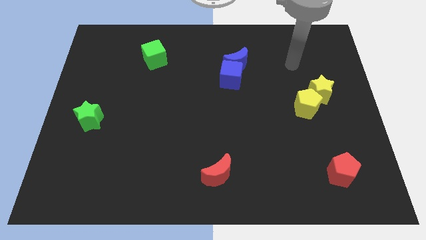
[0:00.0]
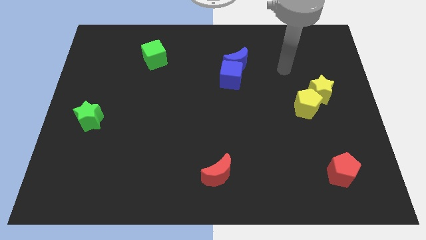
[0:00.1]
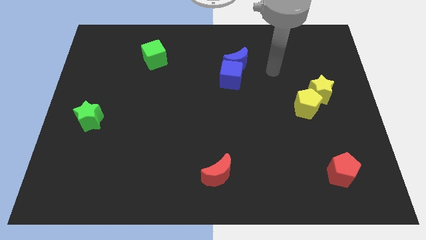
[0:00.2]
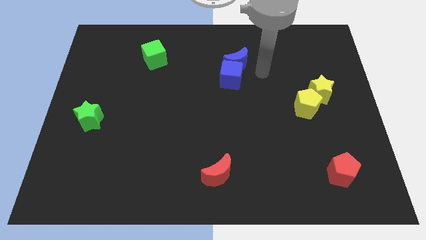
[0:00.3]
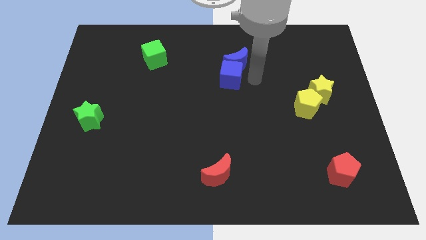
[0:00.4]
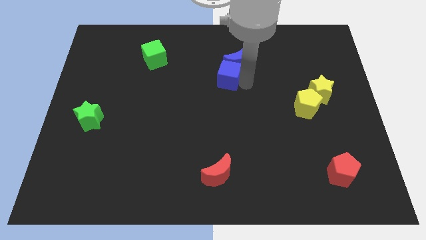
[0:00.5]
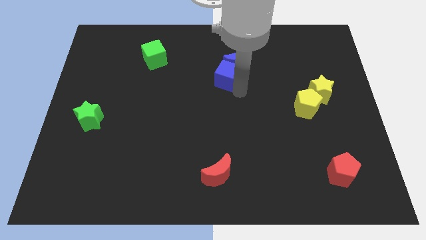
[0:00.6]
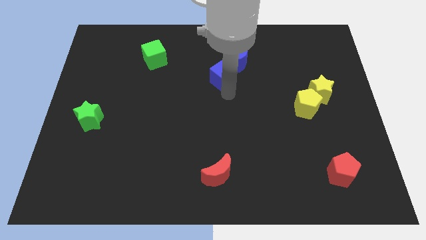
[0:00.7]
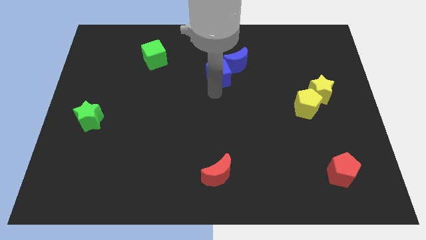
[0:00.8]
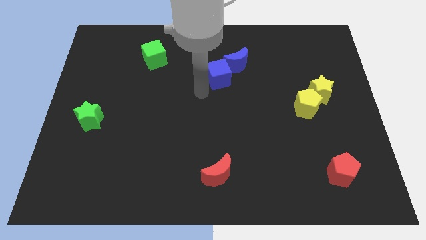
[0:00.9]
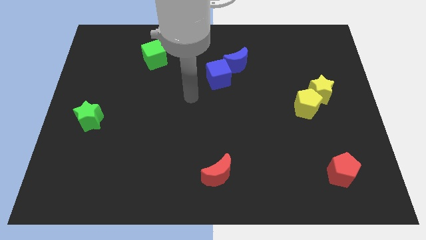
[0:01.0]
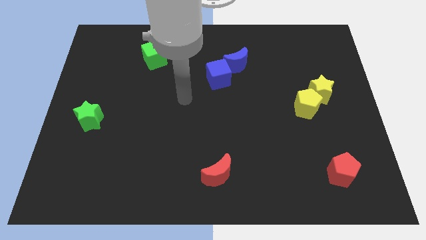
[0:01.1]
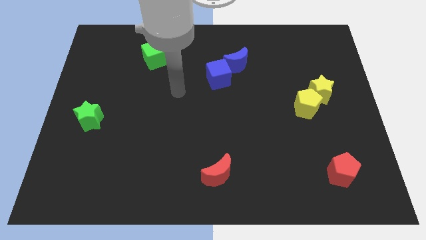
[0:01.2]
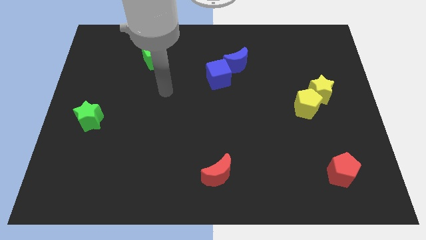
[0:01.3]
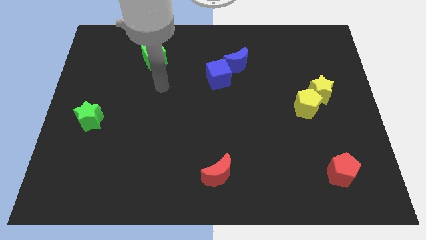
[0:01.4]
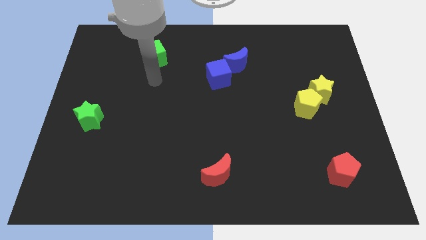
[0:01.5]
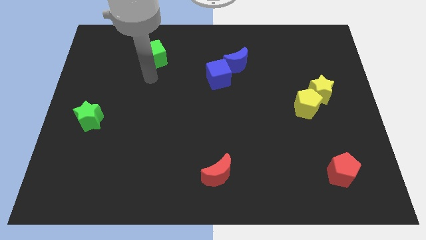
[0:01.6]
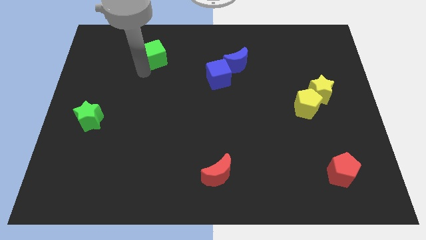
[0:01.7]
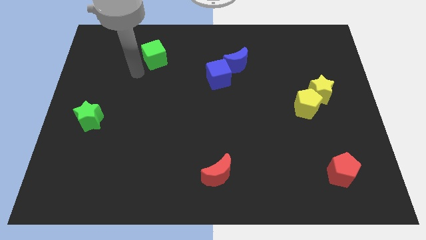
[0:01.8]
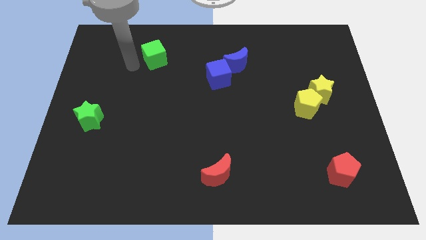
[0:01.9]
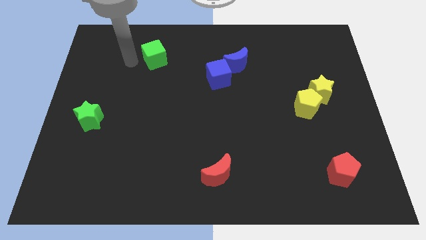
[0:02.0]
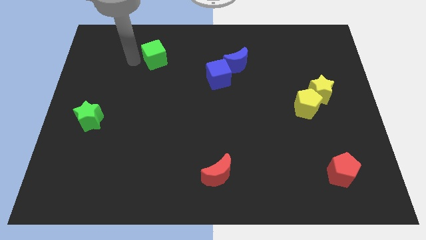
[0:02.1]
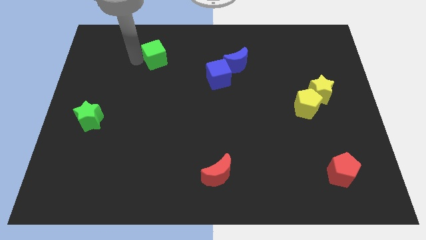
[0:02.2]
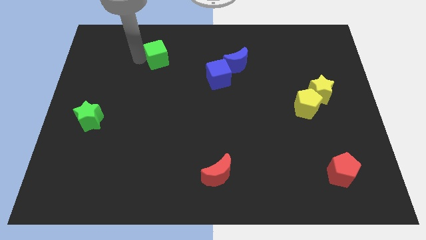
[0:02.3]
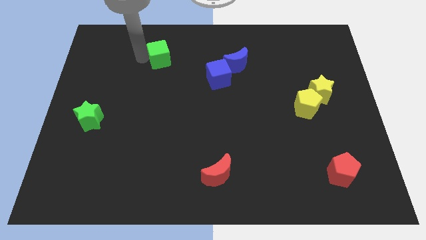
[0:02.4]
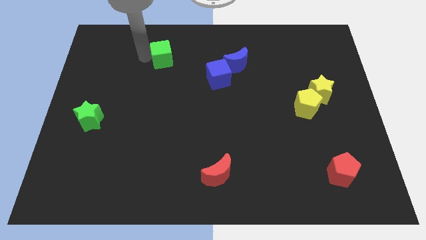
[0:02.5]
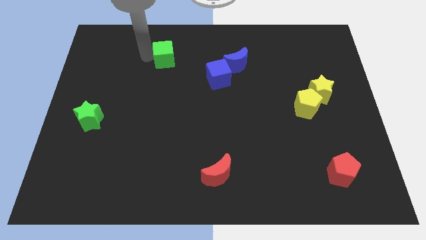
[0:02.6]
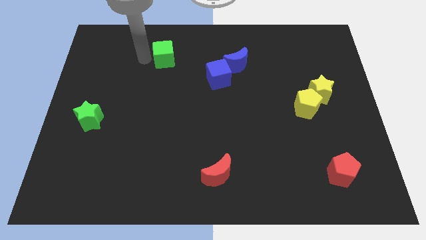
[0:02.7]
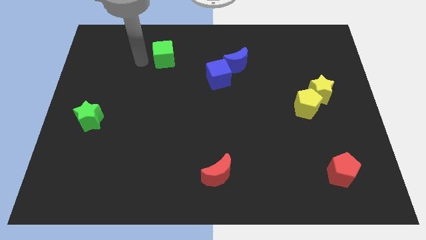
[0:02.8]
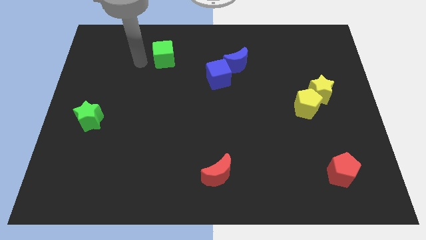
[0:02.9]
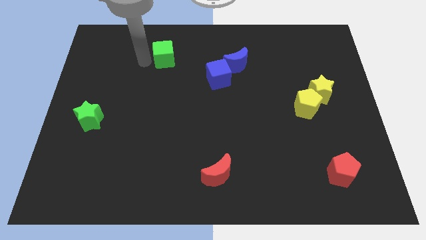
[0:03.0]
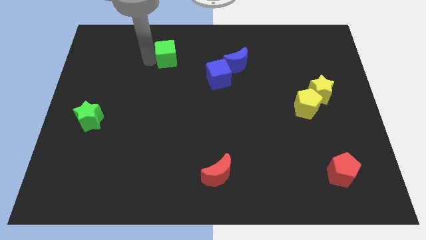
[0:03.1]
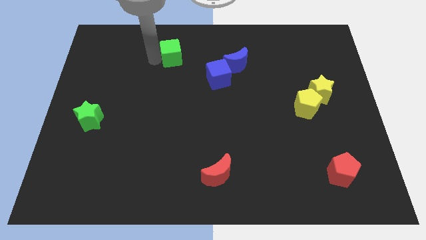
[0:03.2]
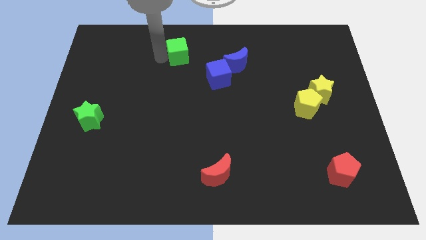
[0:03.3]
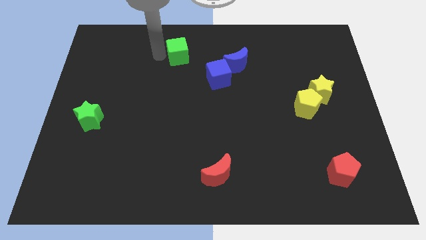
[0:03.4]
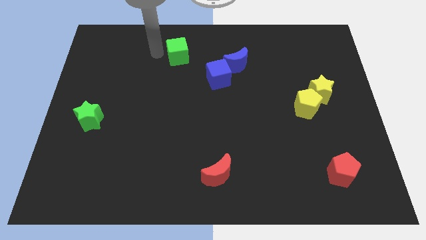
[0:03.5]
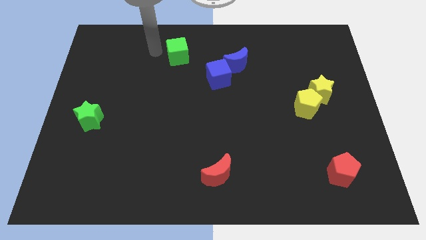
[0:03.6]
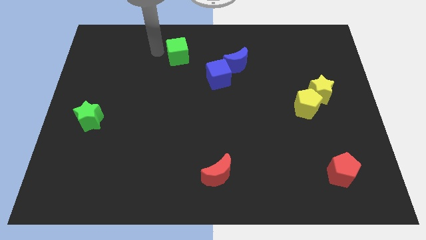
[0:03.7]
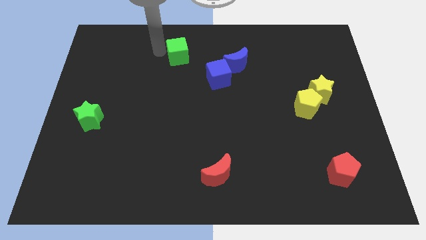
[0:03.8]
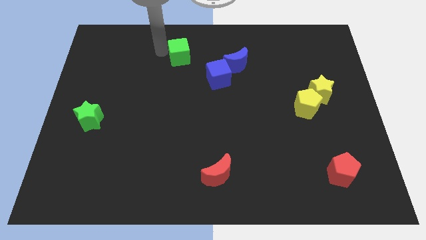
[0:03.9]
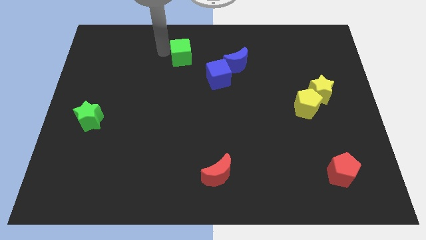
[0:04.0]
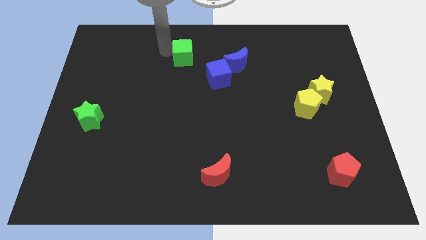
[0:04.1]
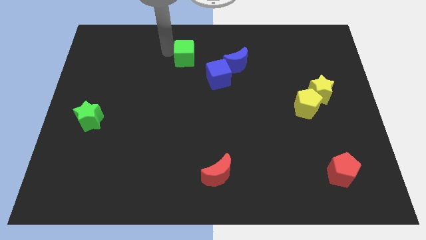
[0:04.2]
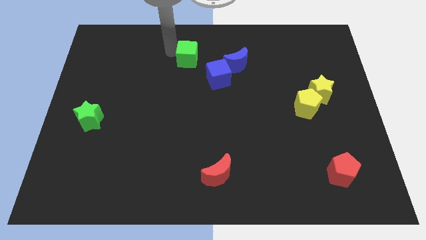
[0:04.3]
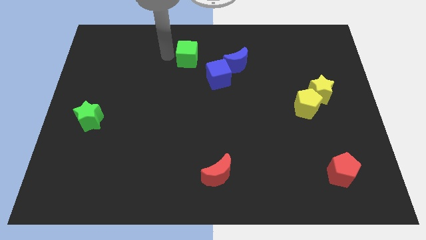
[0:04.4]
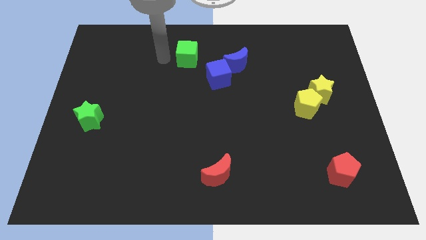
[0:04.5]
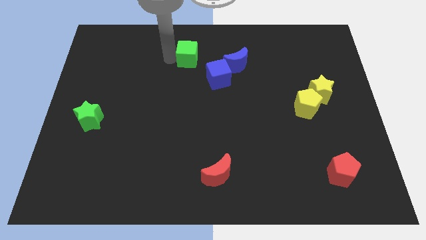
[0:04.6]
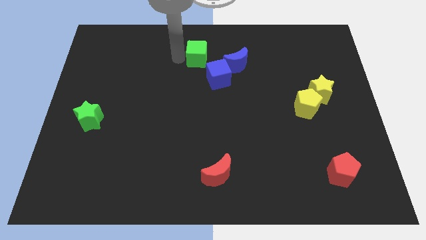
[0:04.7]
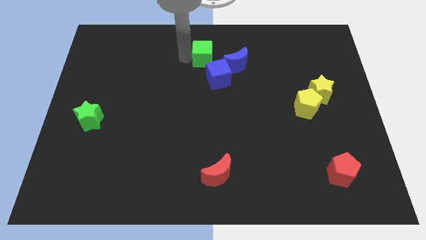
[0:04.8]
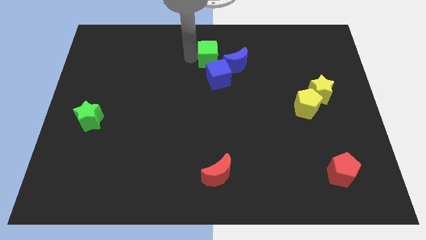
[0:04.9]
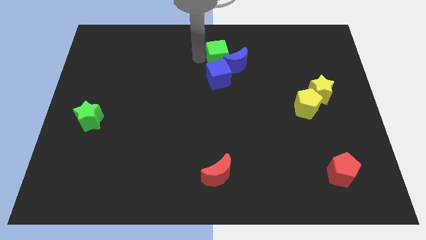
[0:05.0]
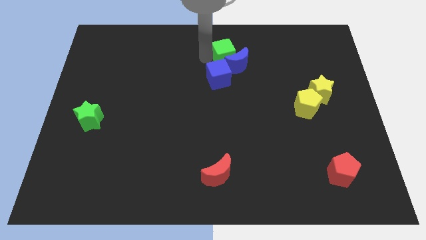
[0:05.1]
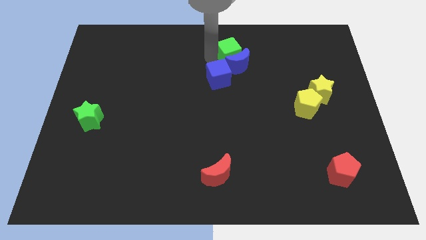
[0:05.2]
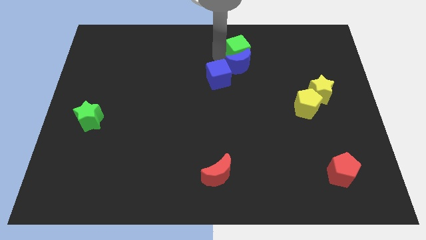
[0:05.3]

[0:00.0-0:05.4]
slide the green cube right

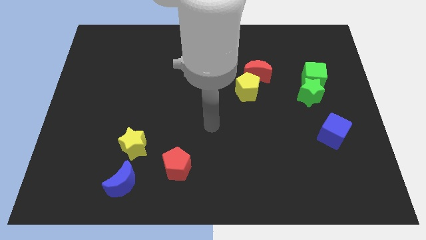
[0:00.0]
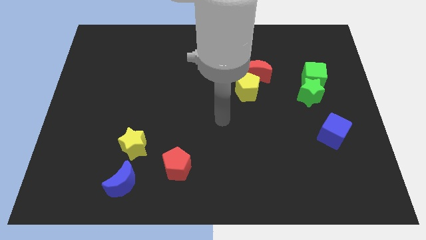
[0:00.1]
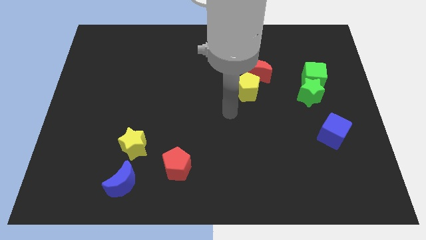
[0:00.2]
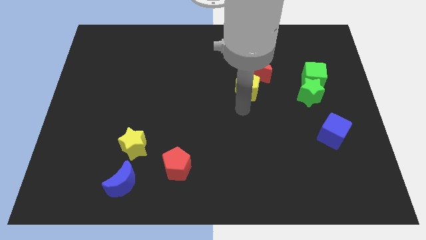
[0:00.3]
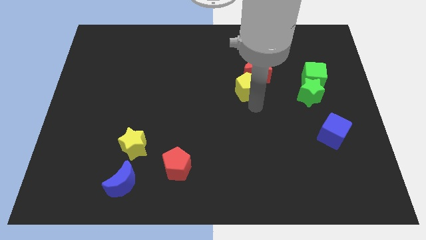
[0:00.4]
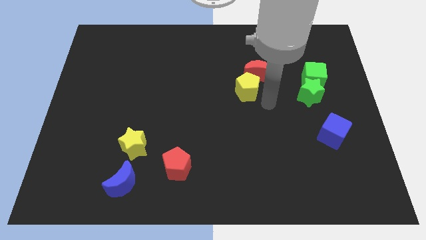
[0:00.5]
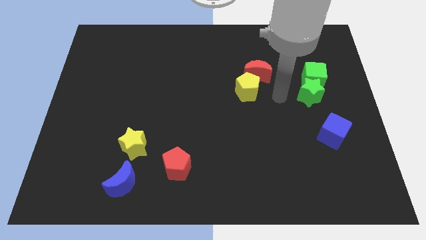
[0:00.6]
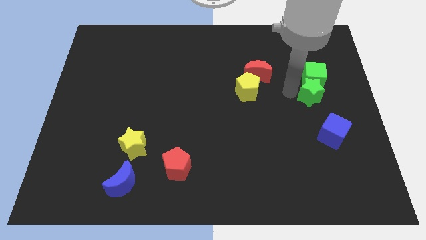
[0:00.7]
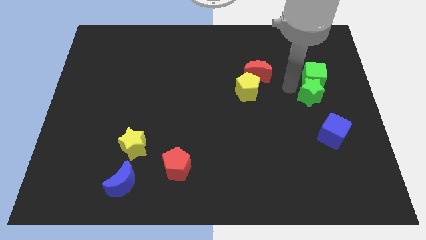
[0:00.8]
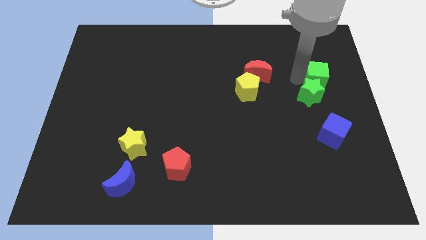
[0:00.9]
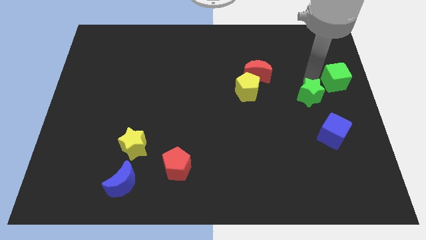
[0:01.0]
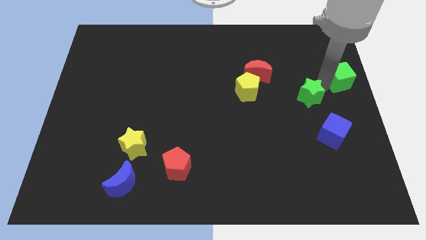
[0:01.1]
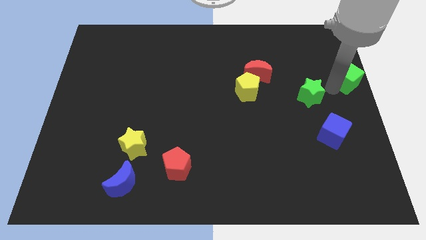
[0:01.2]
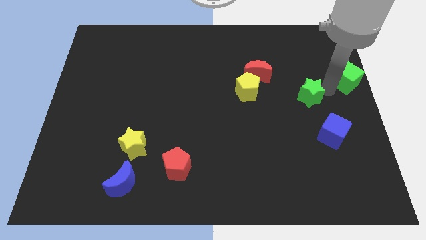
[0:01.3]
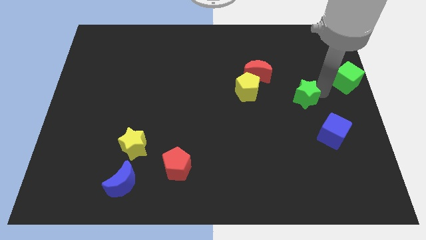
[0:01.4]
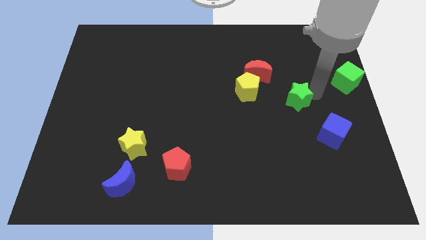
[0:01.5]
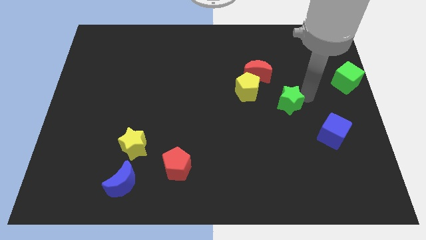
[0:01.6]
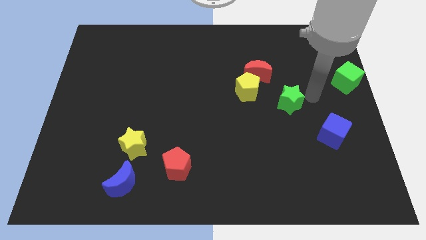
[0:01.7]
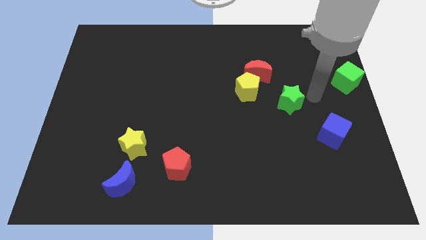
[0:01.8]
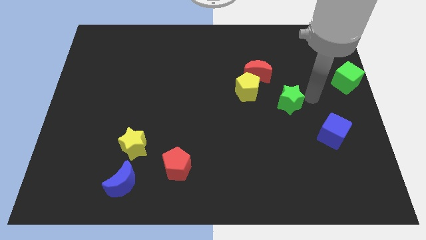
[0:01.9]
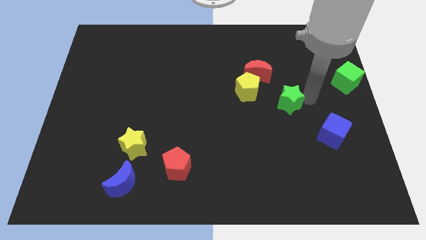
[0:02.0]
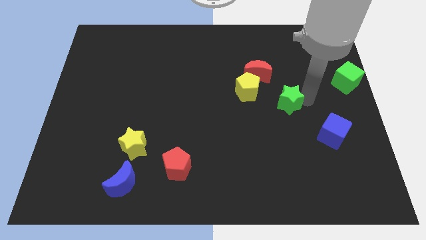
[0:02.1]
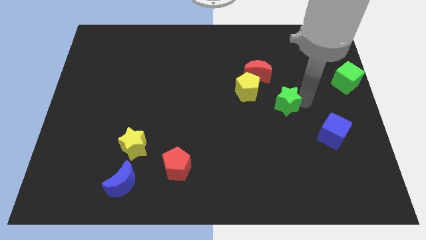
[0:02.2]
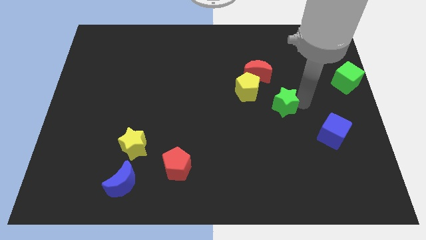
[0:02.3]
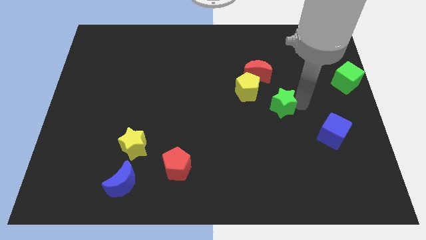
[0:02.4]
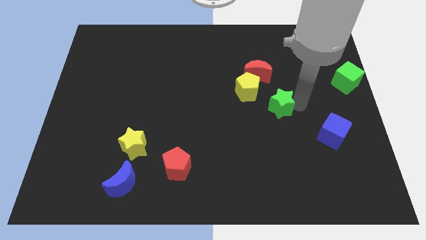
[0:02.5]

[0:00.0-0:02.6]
slightly slide the green star left
